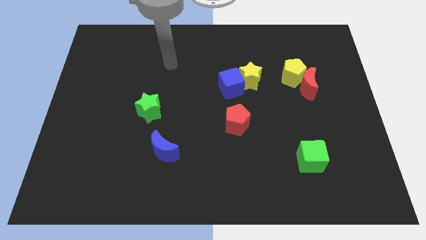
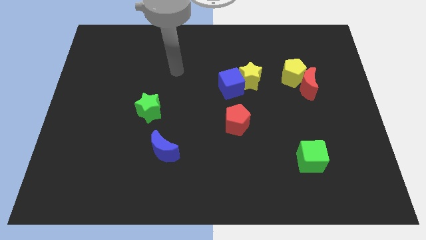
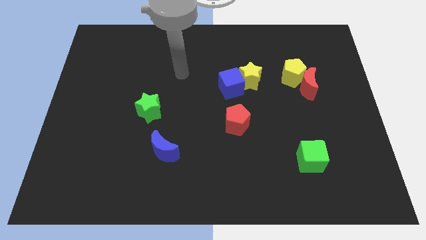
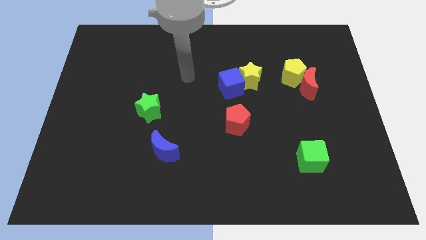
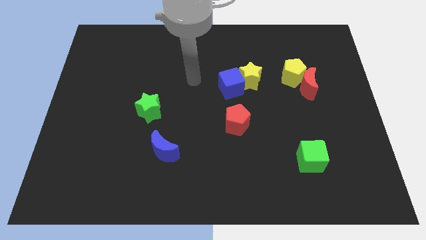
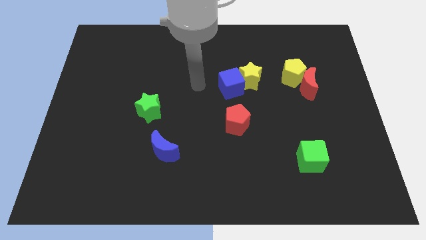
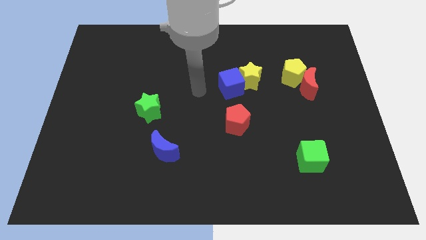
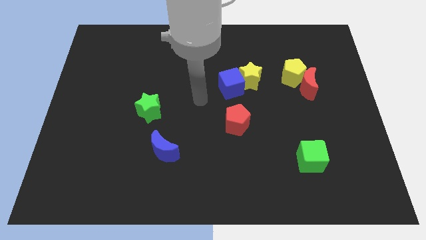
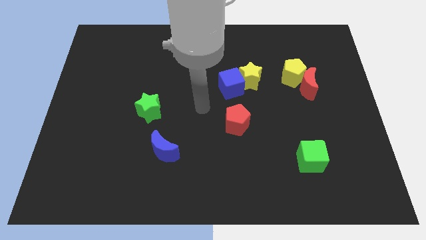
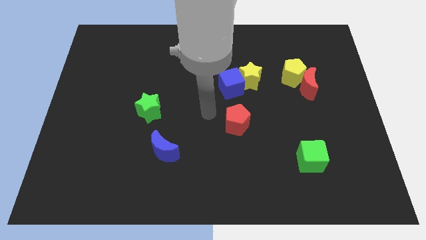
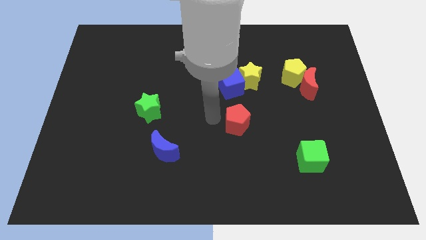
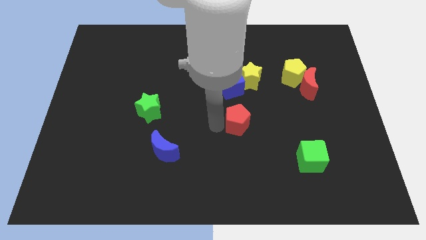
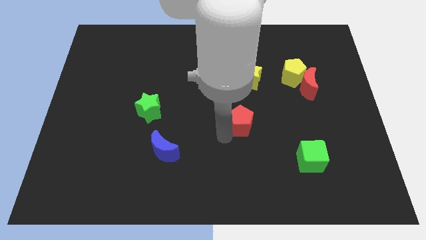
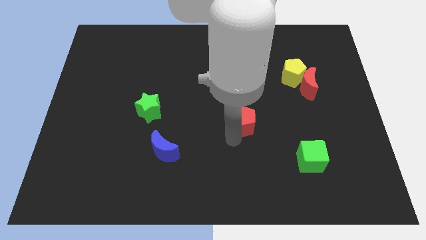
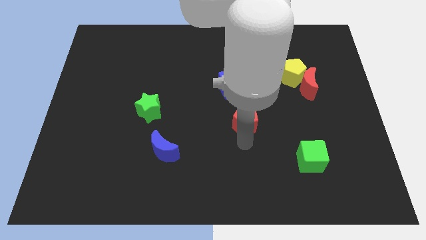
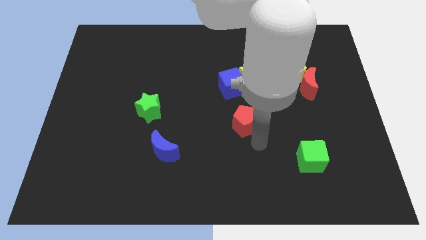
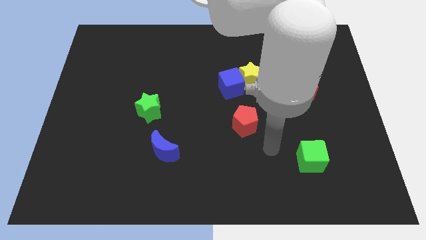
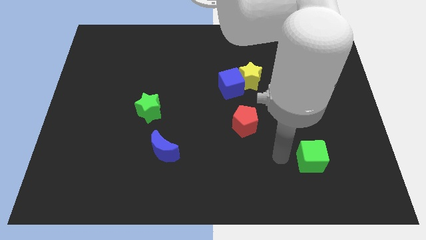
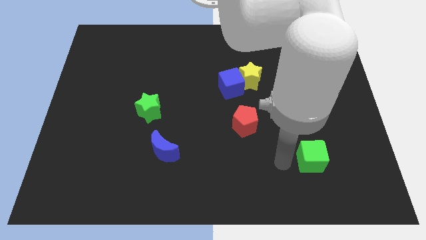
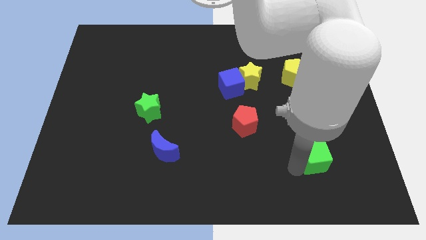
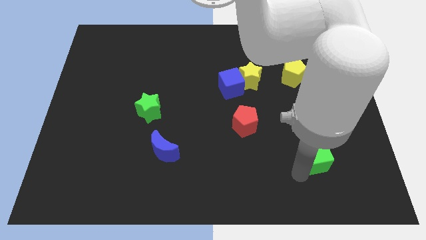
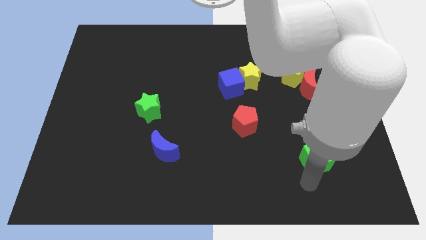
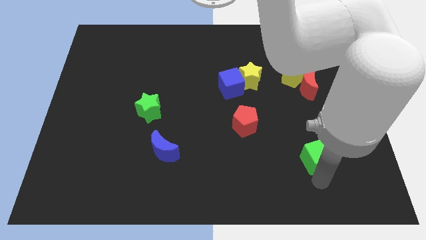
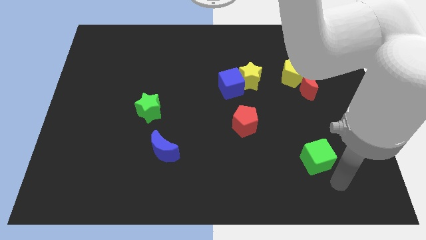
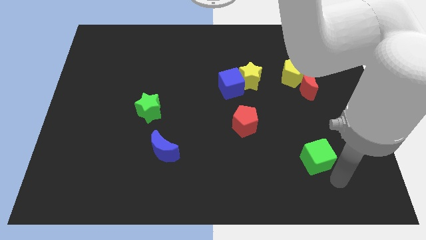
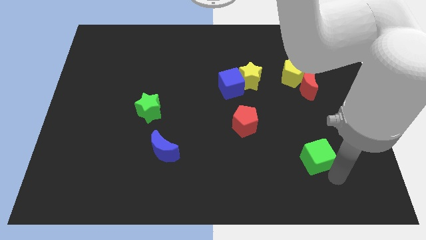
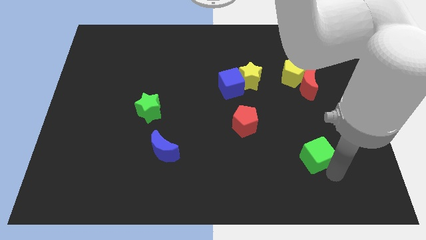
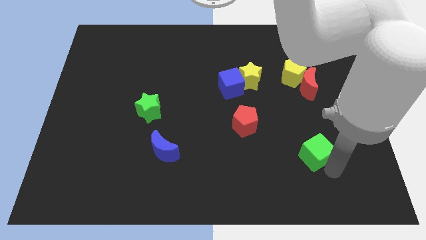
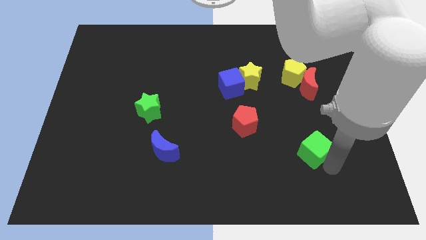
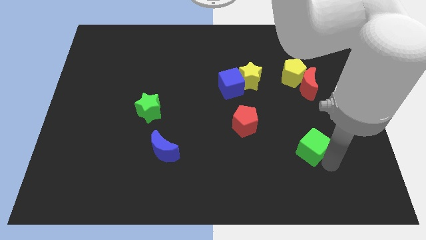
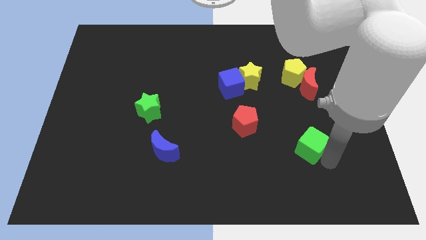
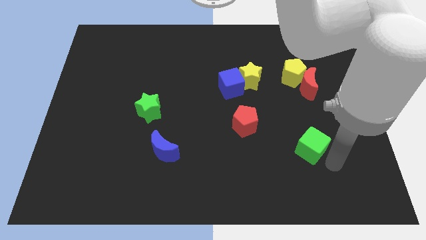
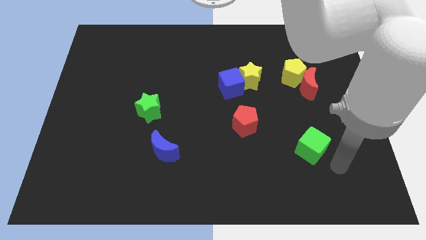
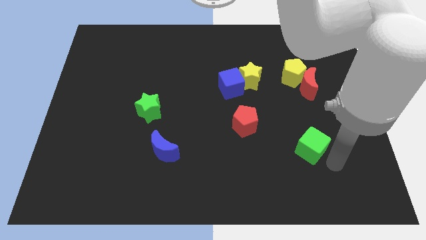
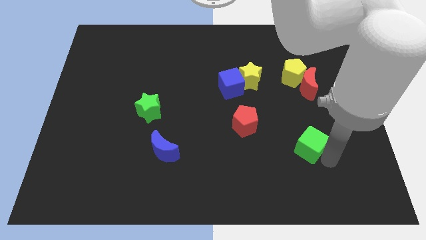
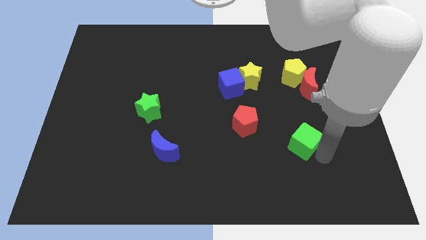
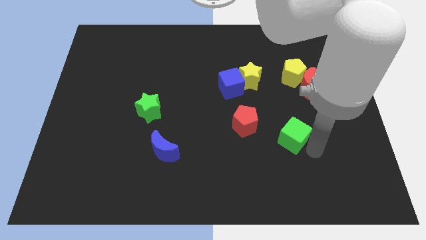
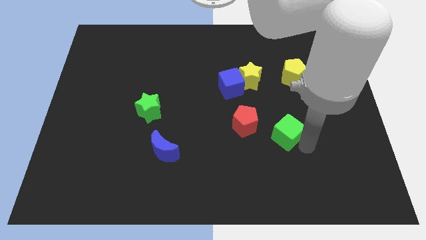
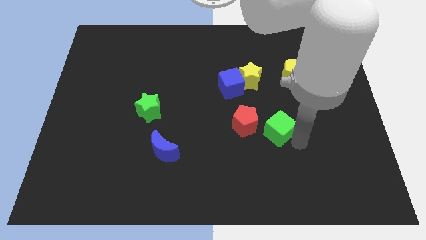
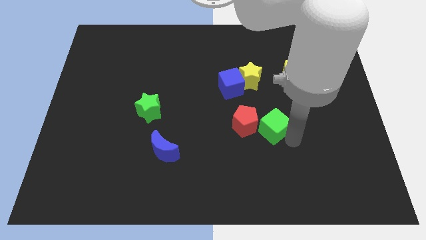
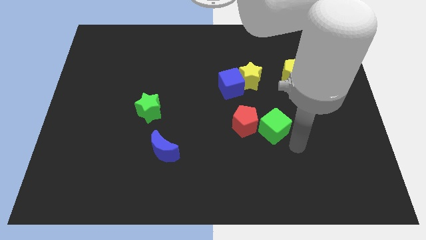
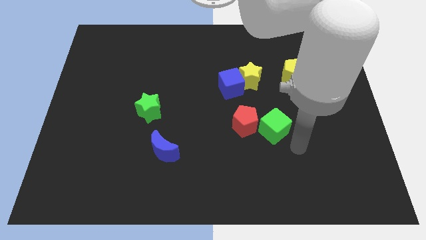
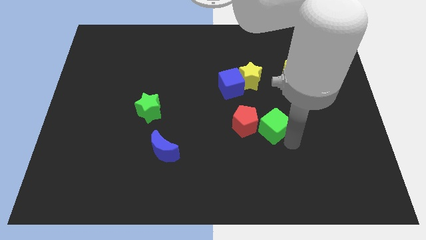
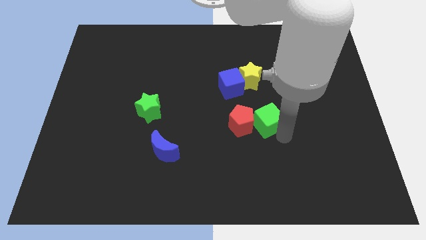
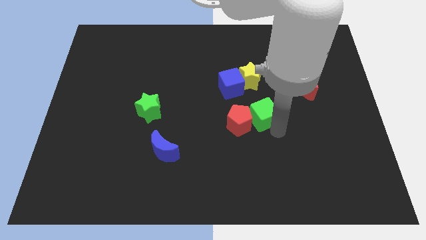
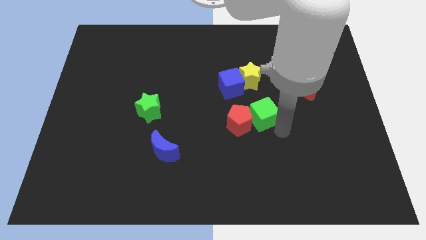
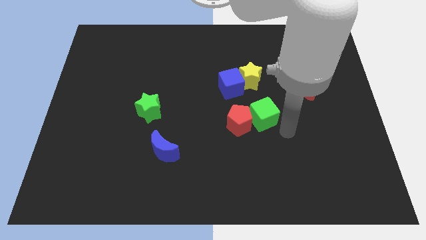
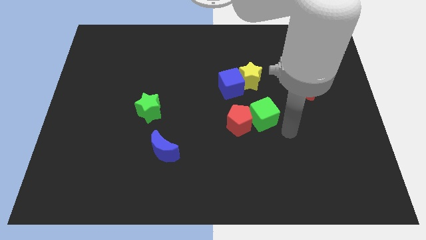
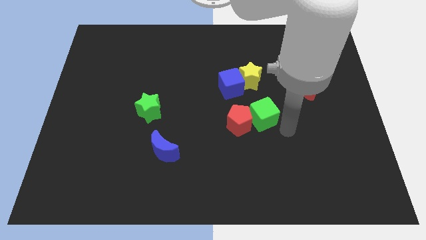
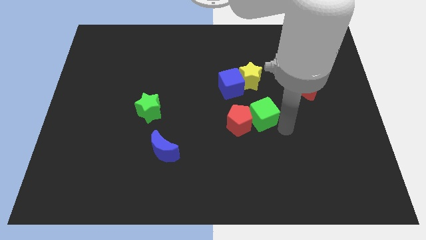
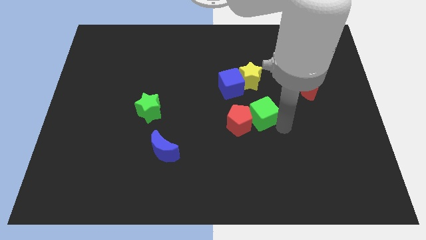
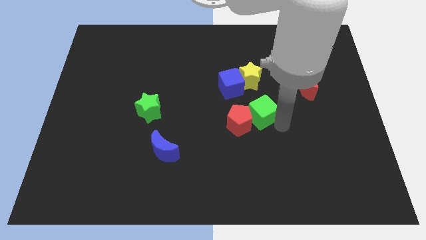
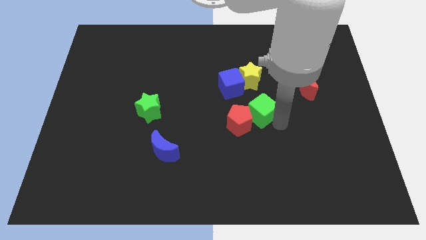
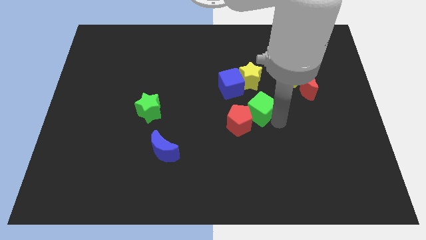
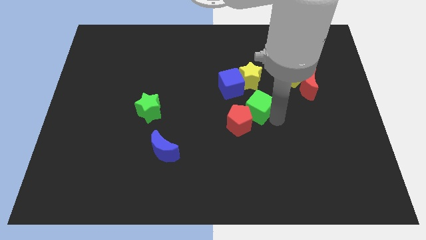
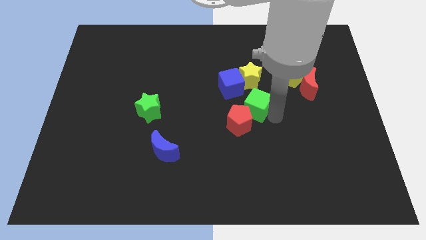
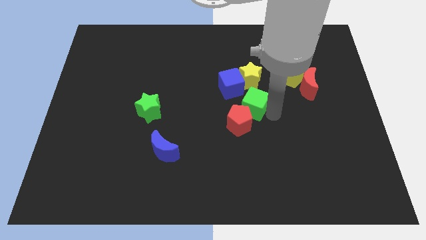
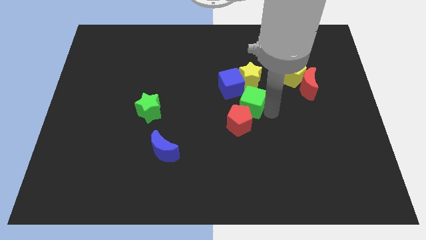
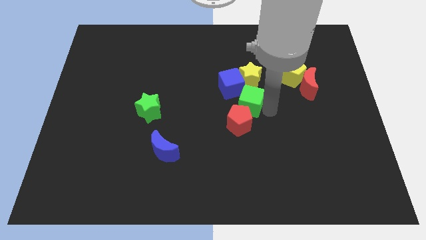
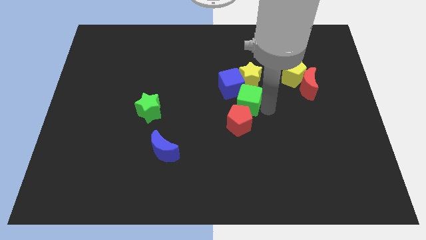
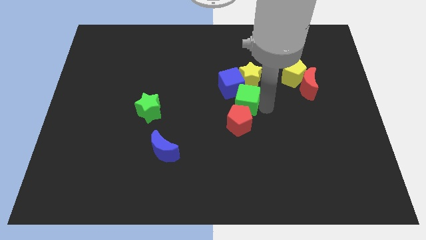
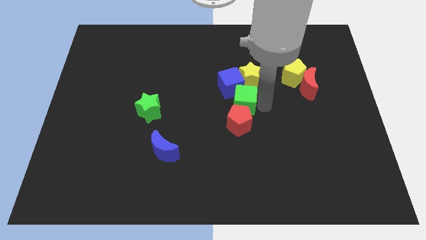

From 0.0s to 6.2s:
push the green cube up and left

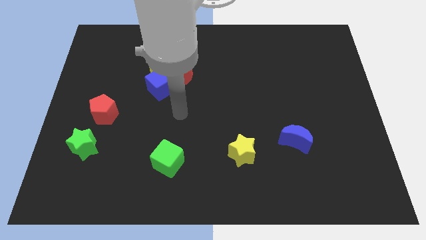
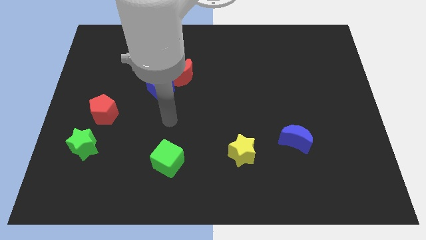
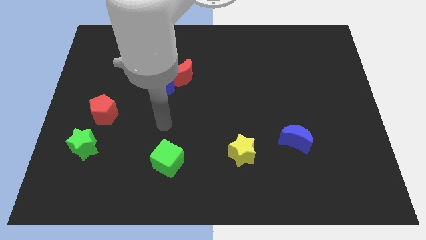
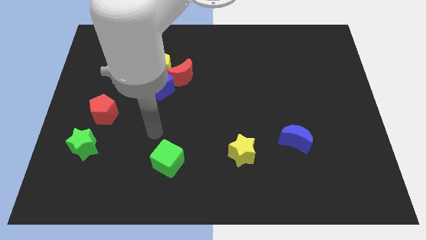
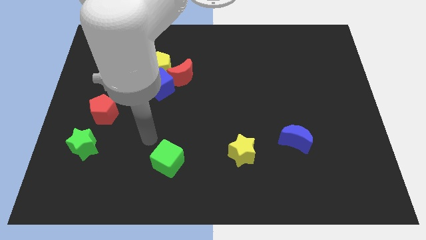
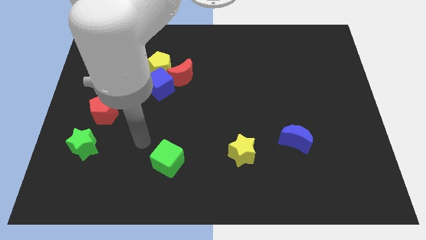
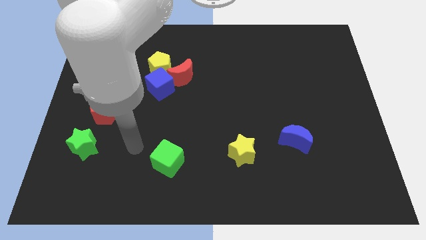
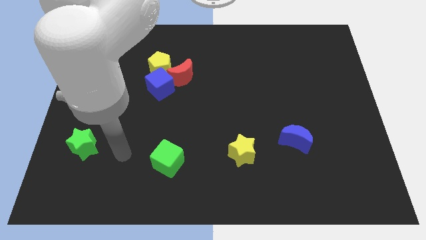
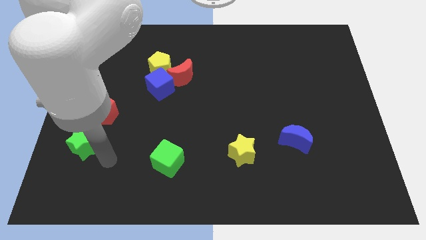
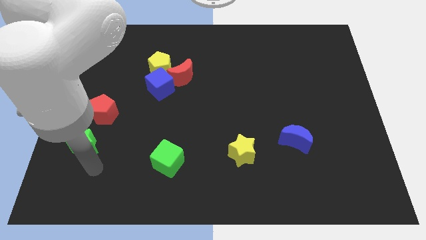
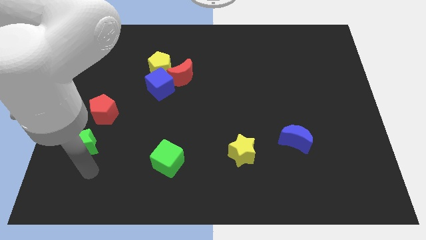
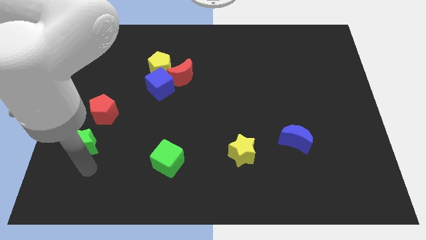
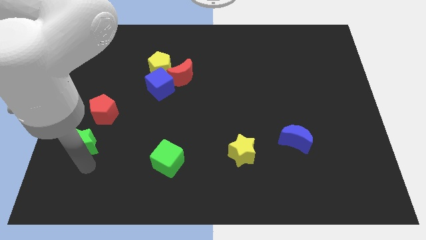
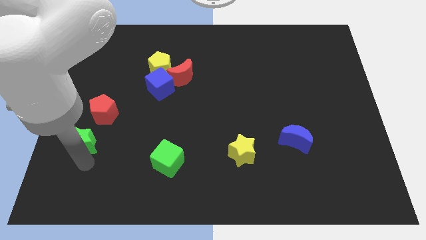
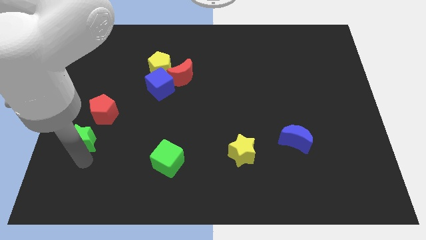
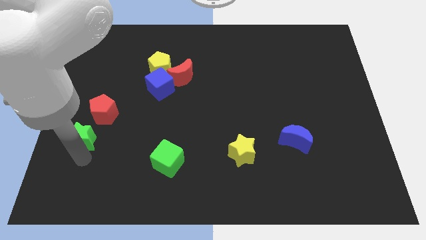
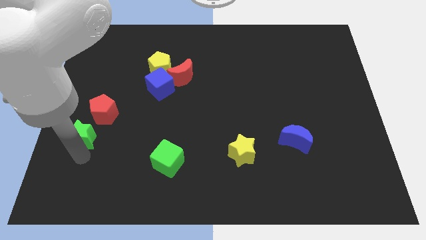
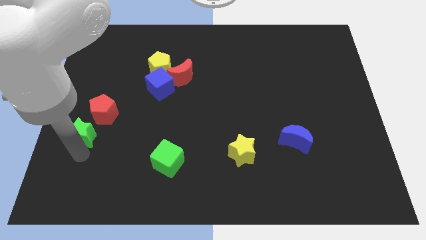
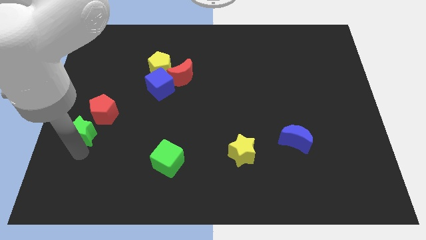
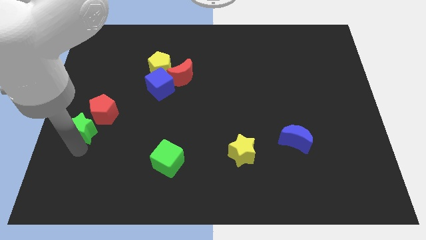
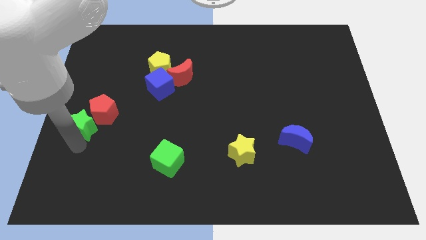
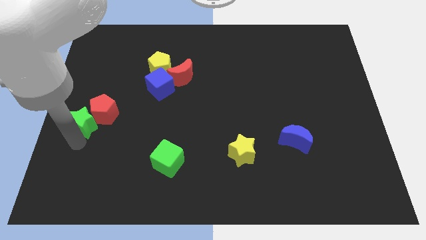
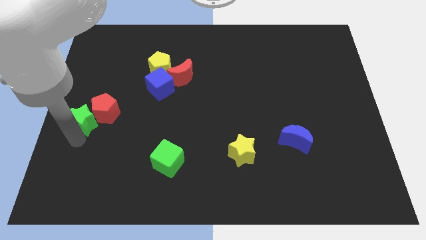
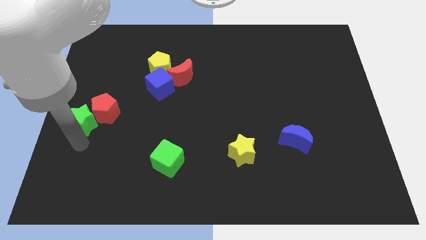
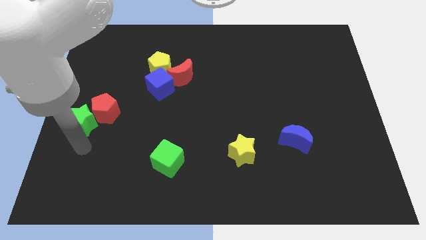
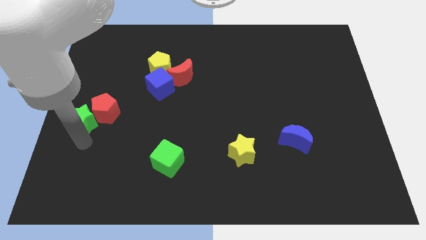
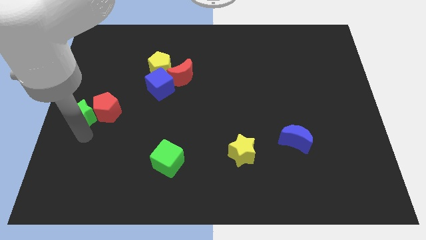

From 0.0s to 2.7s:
slide the green star upwards slightly
